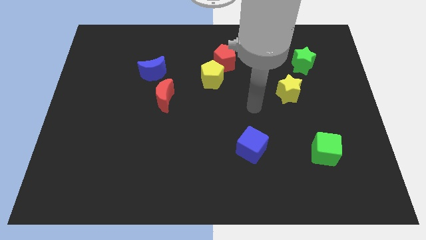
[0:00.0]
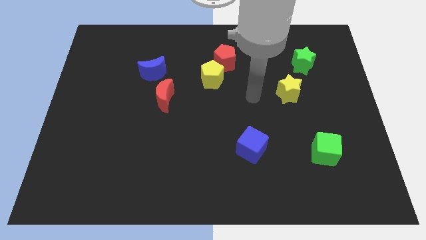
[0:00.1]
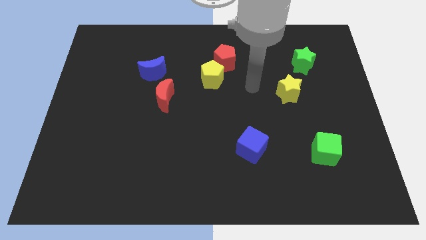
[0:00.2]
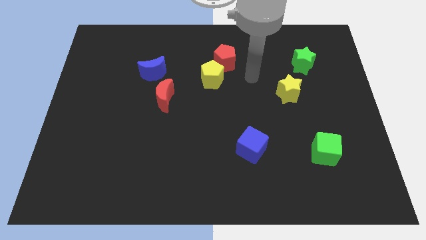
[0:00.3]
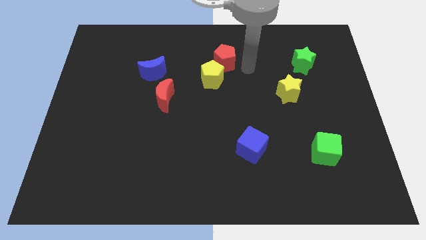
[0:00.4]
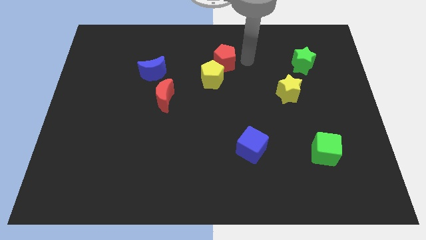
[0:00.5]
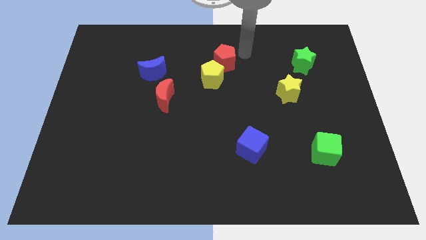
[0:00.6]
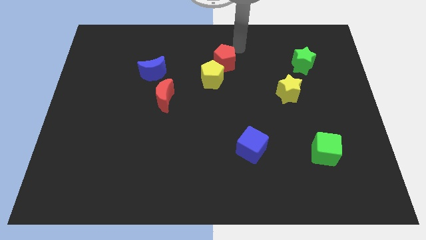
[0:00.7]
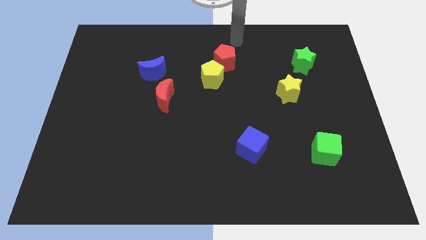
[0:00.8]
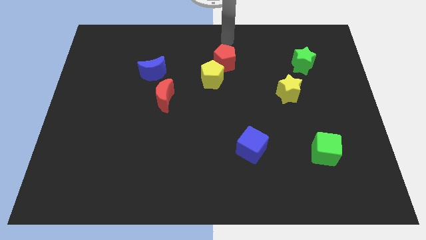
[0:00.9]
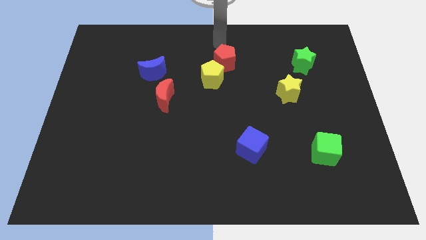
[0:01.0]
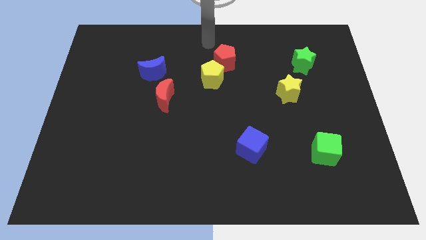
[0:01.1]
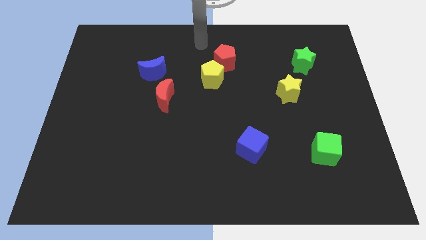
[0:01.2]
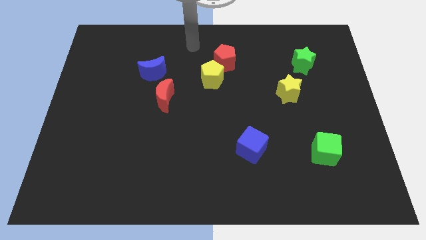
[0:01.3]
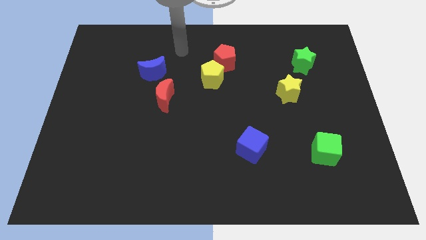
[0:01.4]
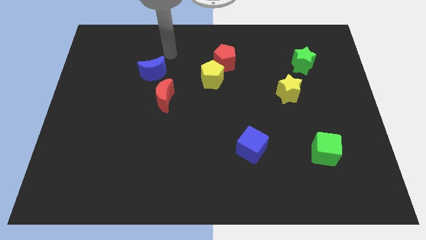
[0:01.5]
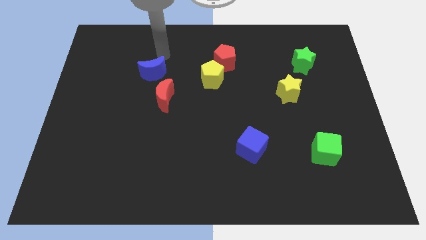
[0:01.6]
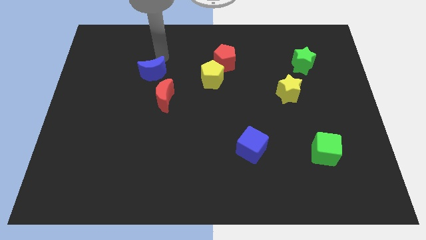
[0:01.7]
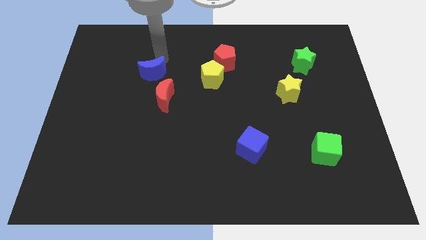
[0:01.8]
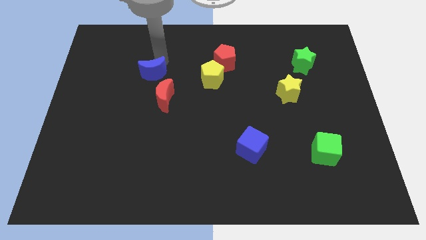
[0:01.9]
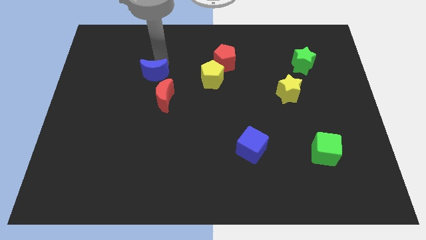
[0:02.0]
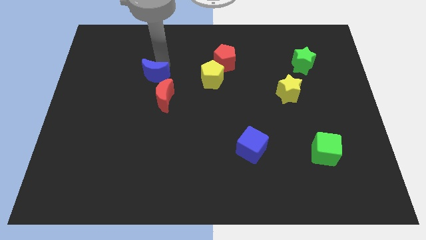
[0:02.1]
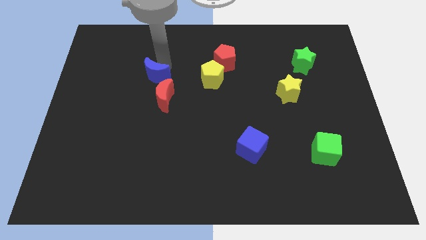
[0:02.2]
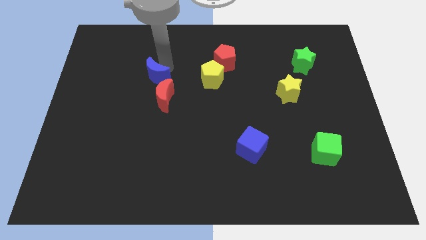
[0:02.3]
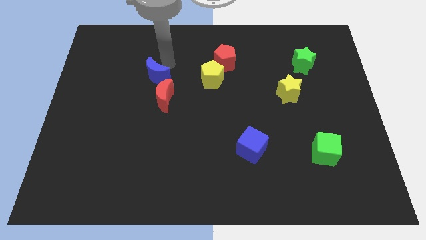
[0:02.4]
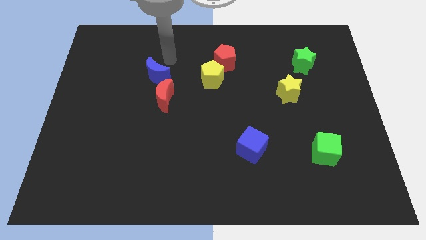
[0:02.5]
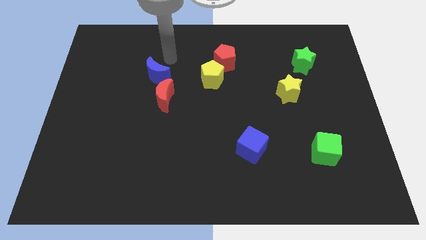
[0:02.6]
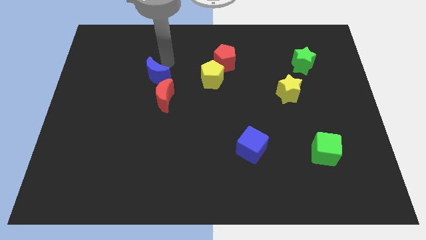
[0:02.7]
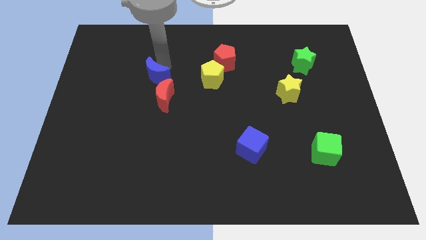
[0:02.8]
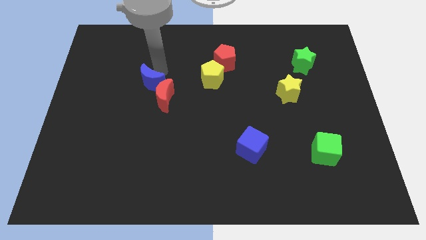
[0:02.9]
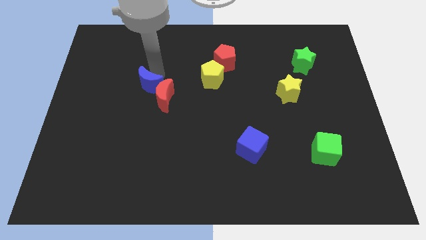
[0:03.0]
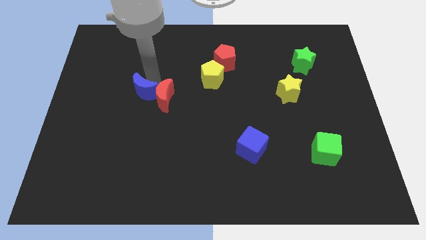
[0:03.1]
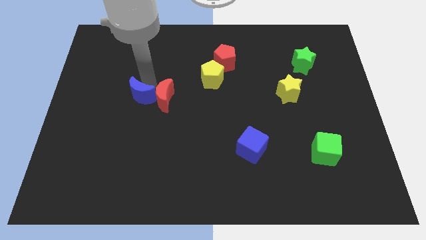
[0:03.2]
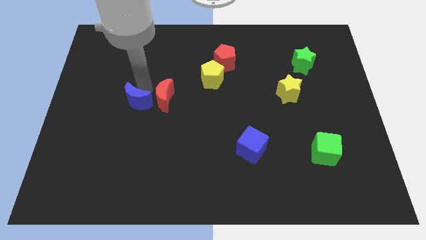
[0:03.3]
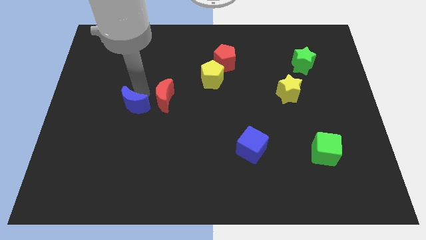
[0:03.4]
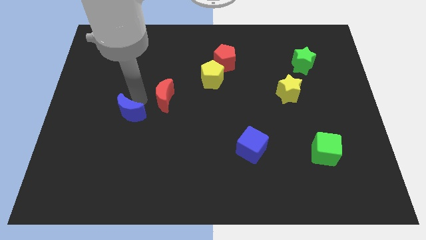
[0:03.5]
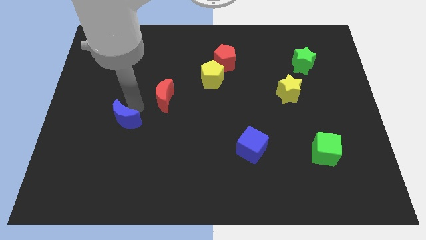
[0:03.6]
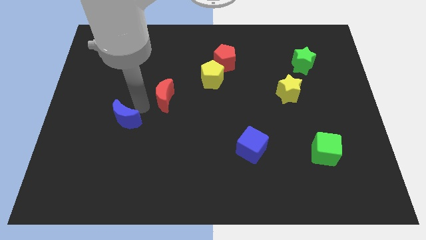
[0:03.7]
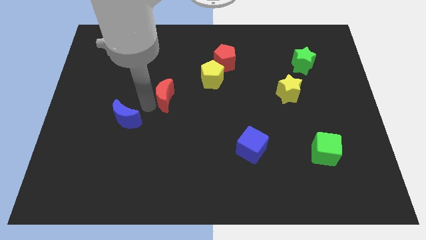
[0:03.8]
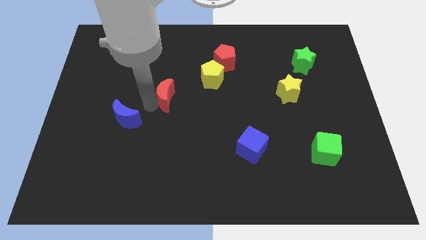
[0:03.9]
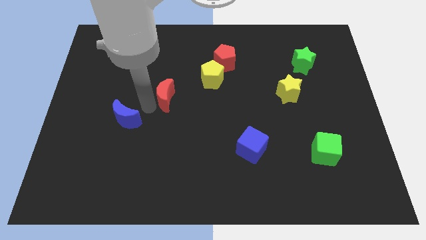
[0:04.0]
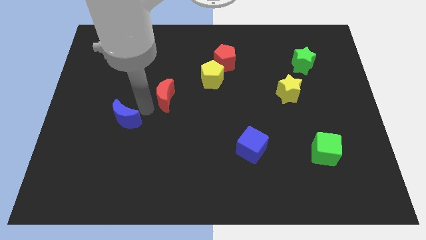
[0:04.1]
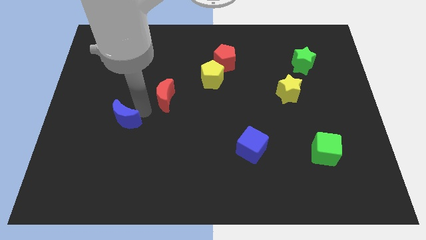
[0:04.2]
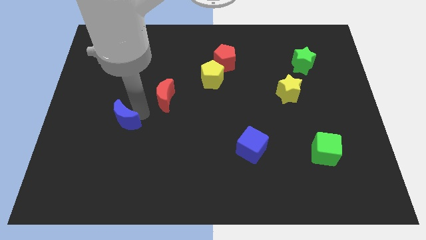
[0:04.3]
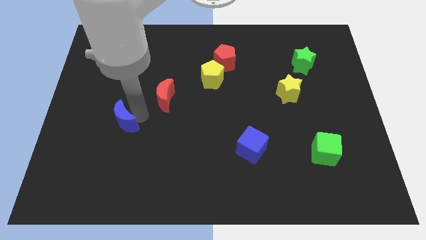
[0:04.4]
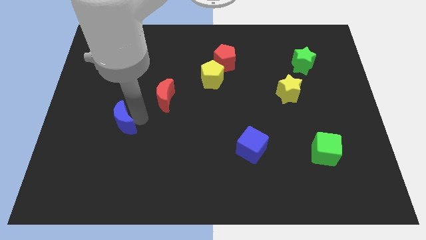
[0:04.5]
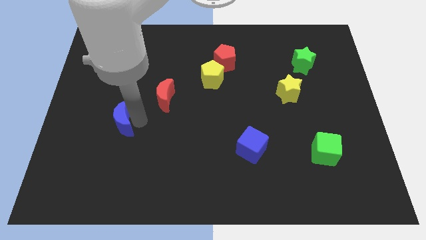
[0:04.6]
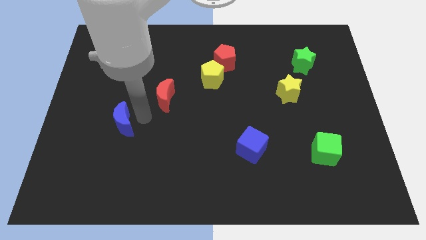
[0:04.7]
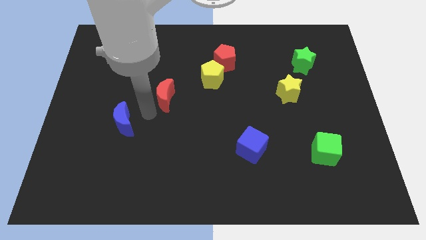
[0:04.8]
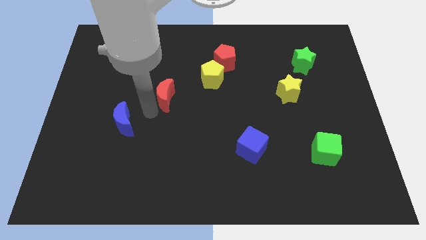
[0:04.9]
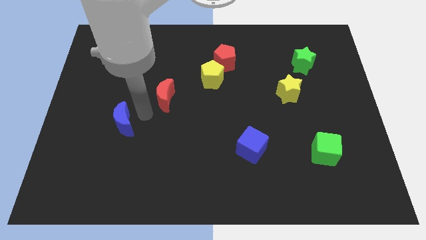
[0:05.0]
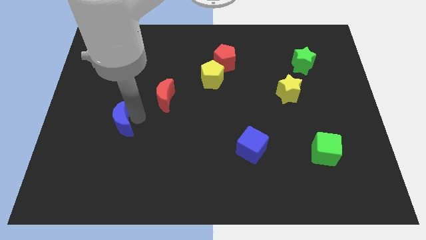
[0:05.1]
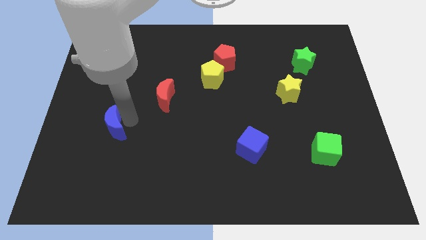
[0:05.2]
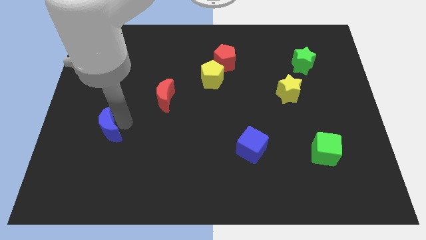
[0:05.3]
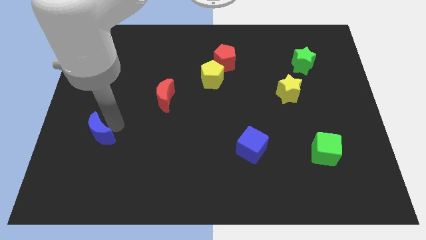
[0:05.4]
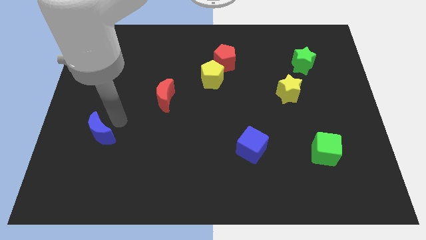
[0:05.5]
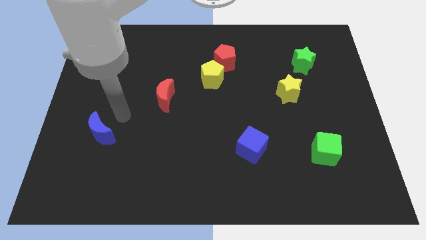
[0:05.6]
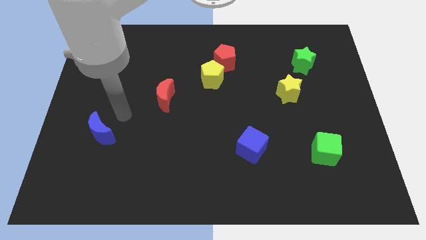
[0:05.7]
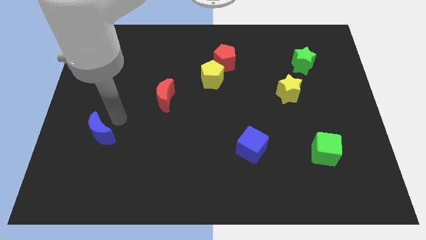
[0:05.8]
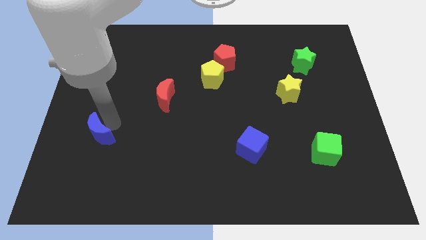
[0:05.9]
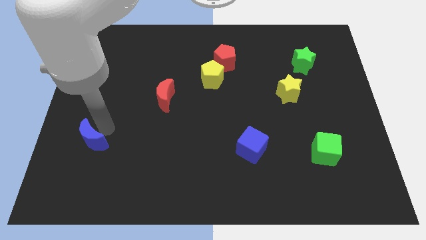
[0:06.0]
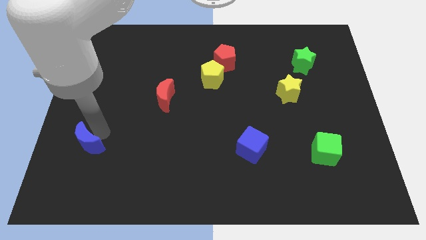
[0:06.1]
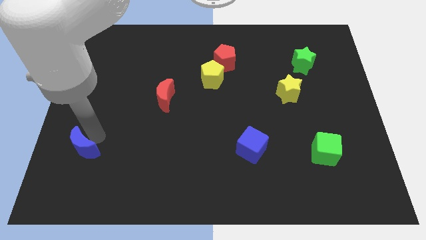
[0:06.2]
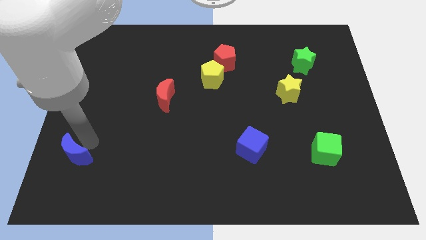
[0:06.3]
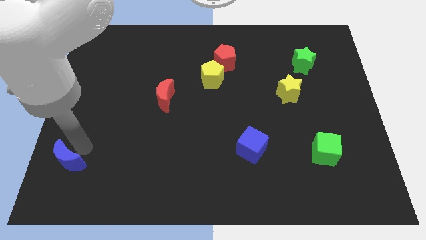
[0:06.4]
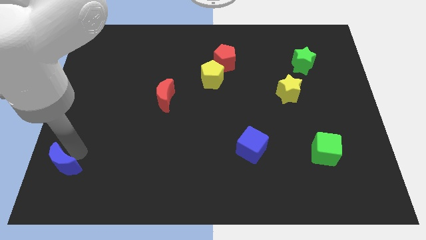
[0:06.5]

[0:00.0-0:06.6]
push the blue moon to the bottom left of the board

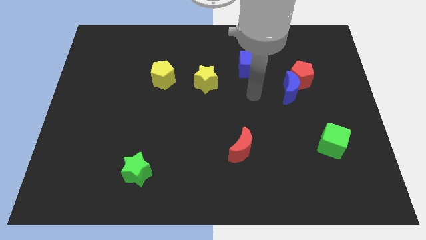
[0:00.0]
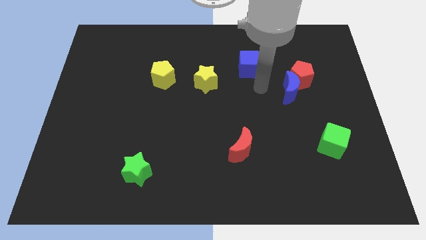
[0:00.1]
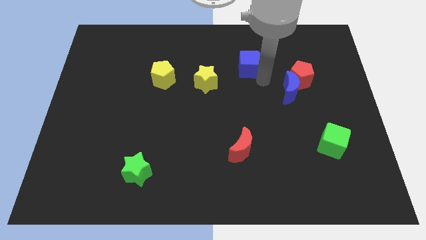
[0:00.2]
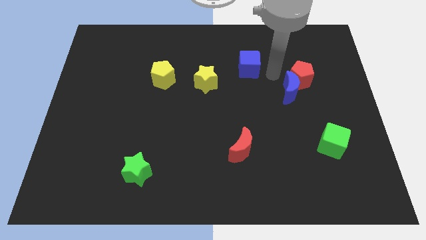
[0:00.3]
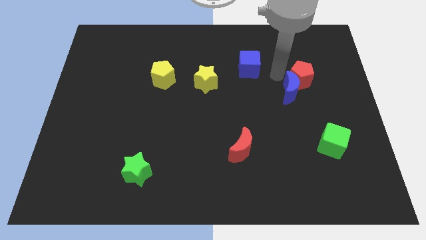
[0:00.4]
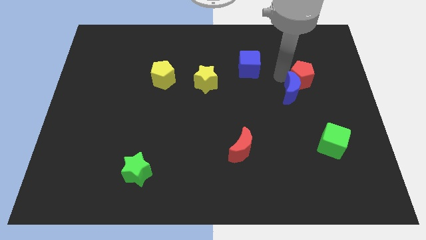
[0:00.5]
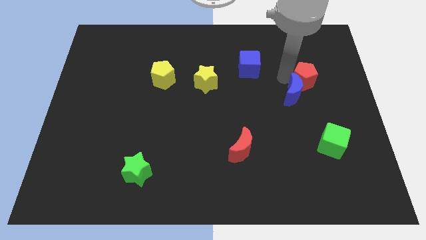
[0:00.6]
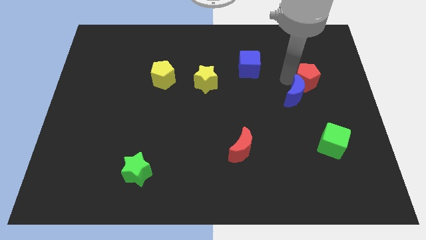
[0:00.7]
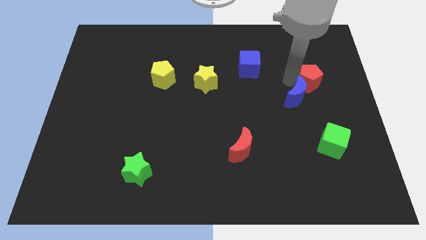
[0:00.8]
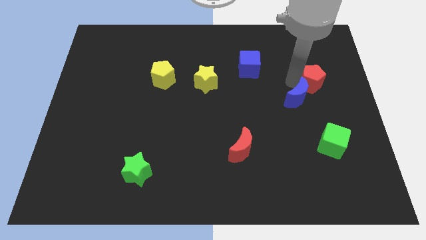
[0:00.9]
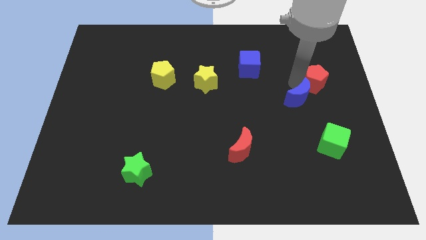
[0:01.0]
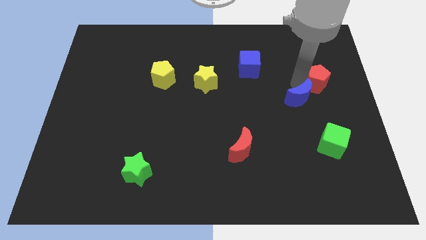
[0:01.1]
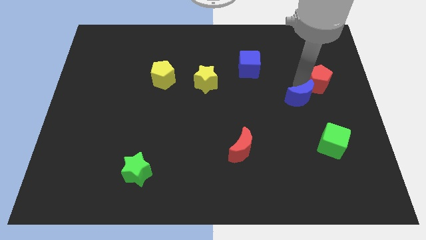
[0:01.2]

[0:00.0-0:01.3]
slide the red pentagon to the center right
